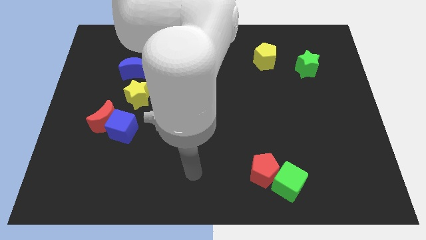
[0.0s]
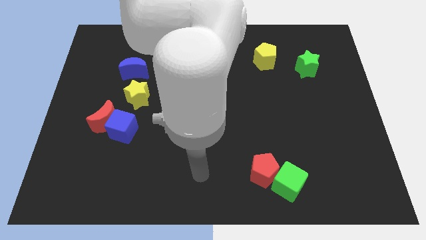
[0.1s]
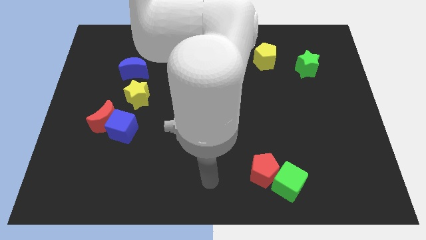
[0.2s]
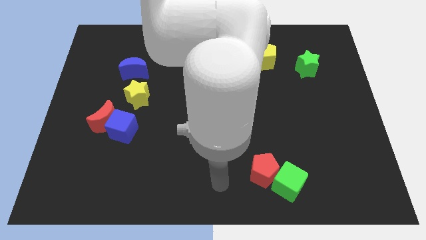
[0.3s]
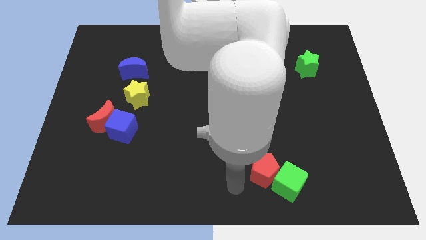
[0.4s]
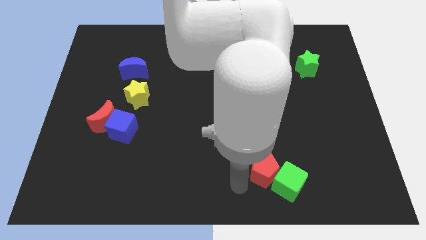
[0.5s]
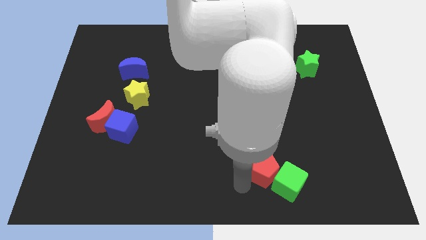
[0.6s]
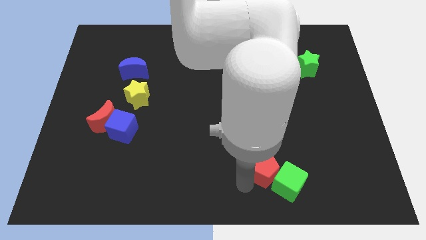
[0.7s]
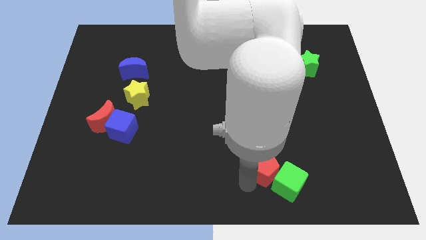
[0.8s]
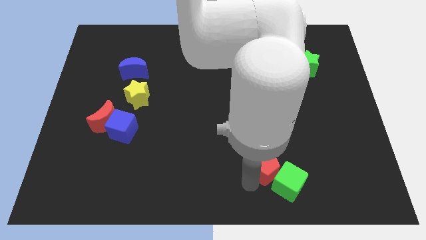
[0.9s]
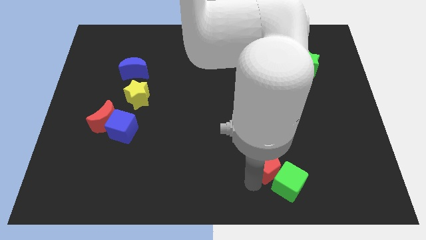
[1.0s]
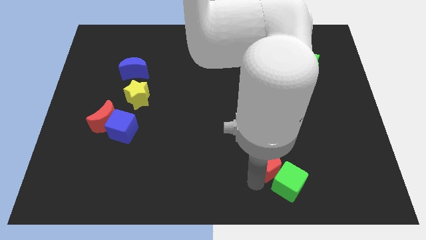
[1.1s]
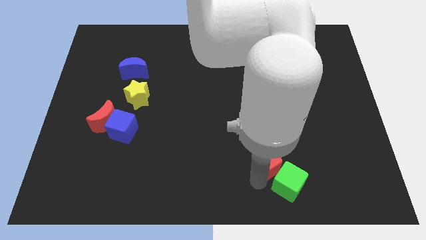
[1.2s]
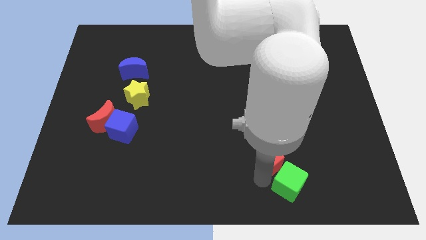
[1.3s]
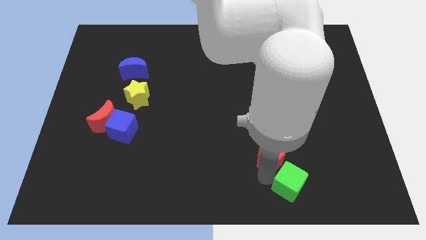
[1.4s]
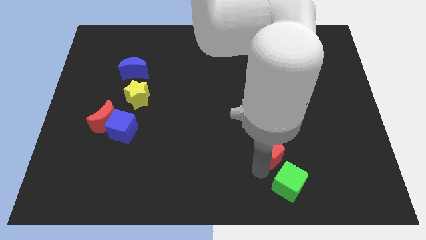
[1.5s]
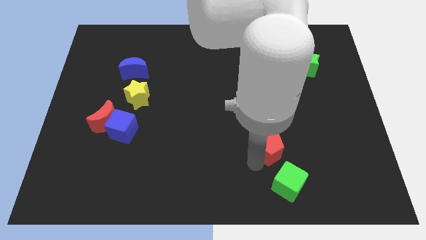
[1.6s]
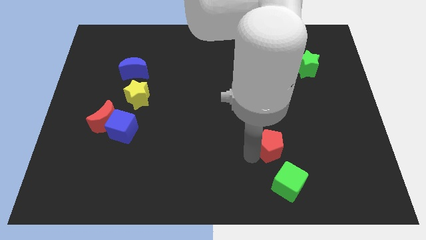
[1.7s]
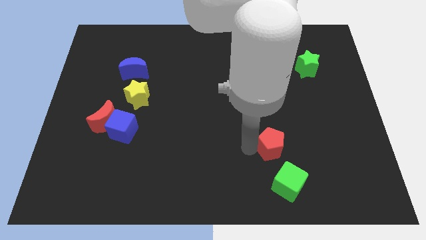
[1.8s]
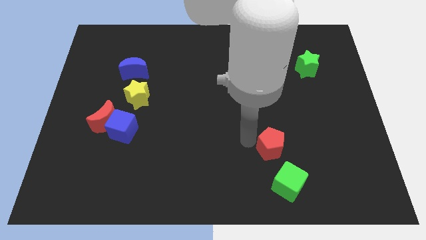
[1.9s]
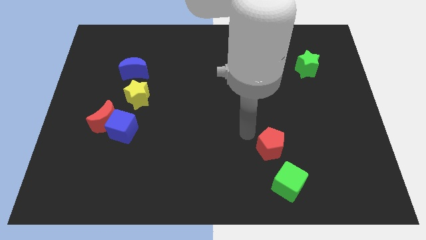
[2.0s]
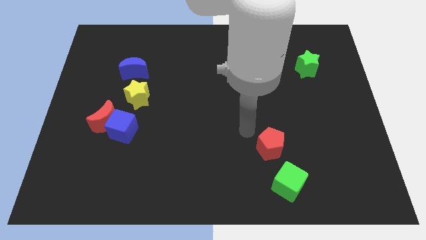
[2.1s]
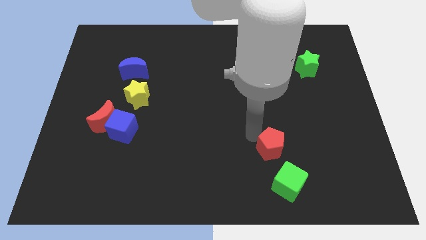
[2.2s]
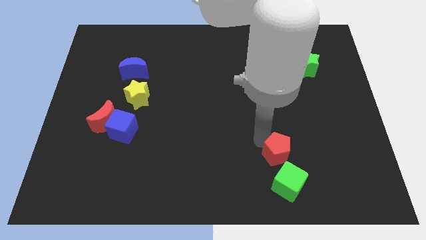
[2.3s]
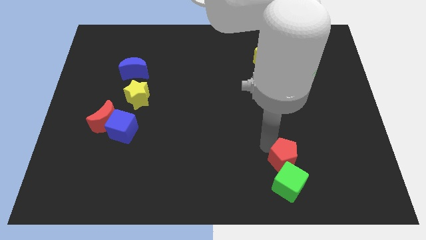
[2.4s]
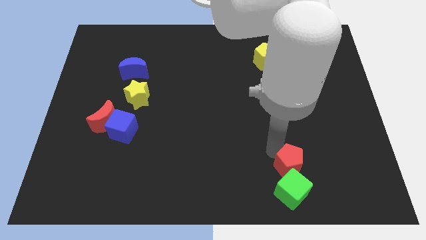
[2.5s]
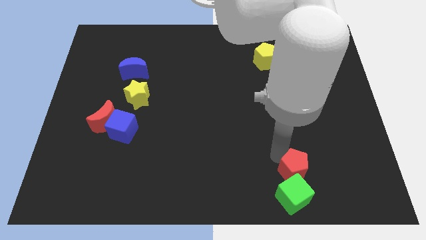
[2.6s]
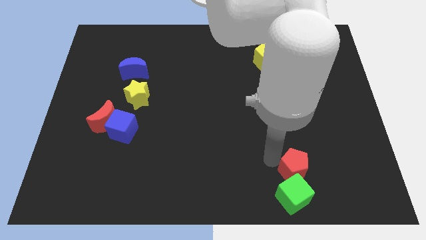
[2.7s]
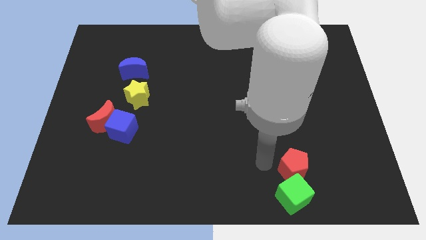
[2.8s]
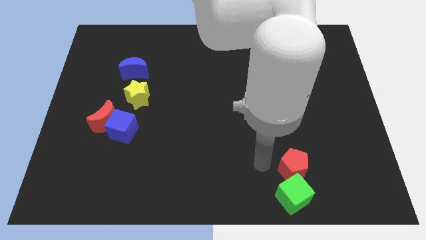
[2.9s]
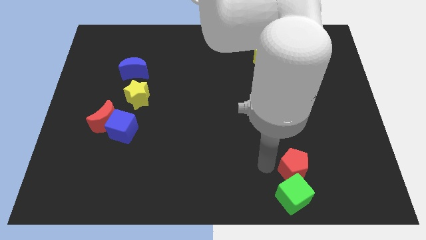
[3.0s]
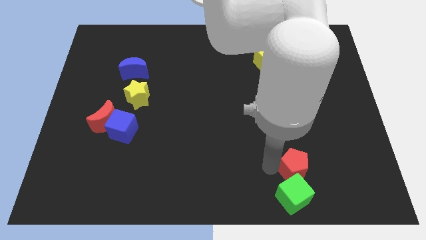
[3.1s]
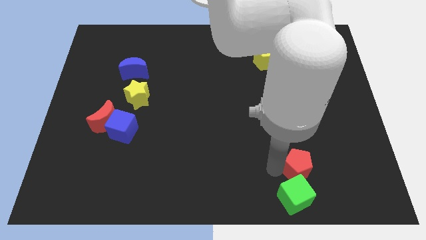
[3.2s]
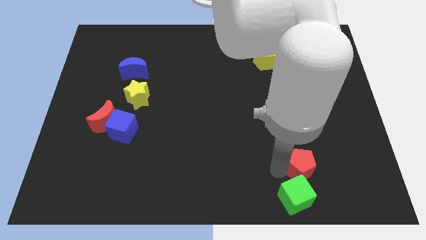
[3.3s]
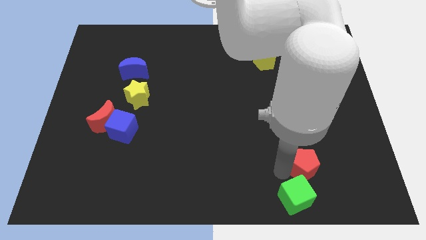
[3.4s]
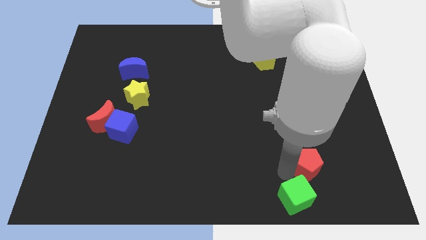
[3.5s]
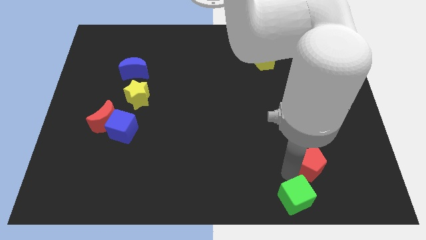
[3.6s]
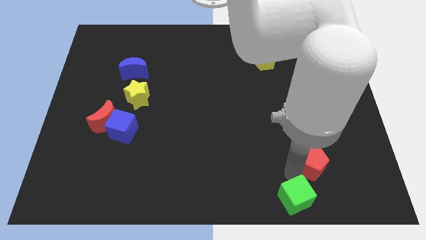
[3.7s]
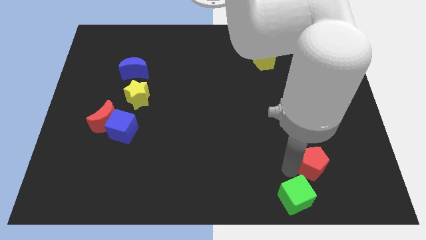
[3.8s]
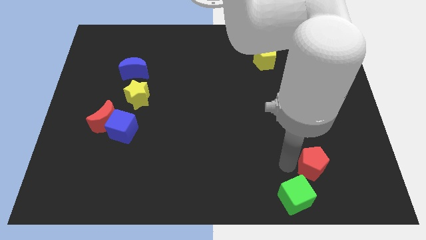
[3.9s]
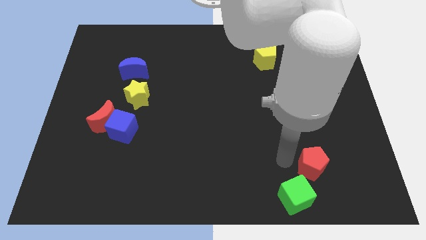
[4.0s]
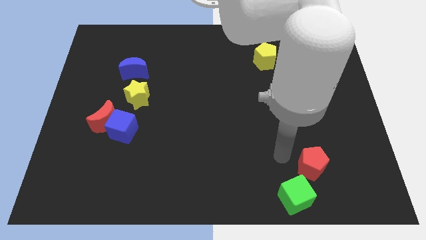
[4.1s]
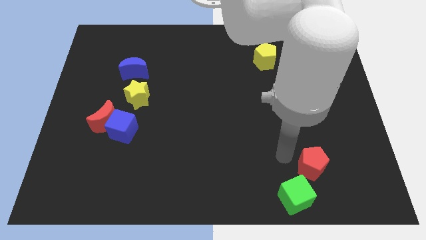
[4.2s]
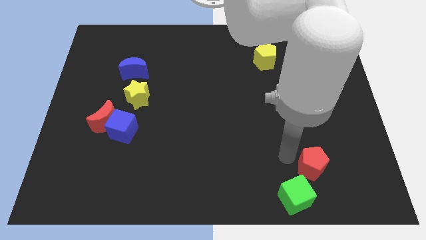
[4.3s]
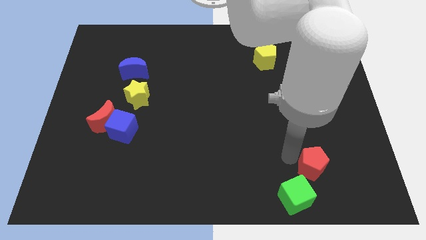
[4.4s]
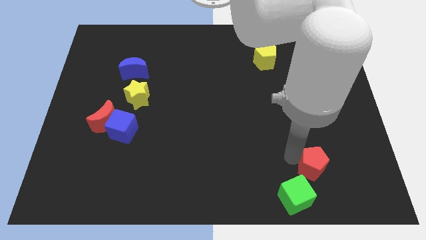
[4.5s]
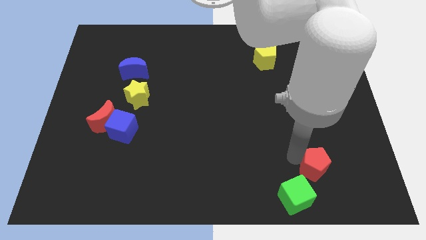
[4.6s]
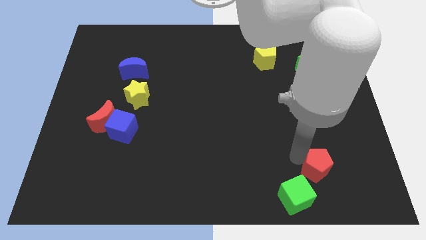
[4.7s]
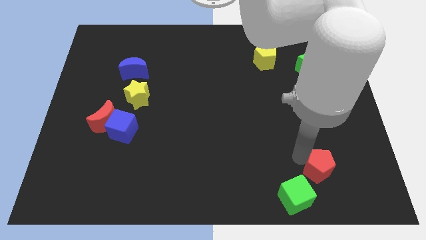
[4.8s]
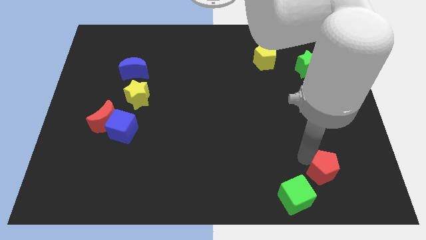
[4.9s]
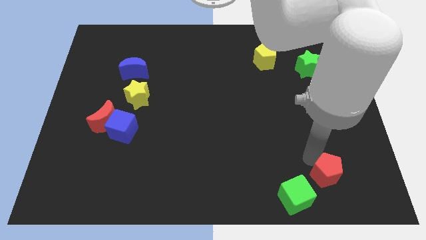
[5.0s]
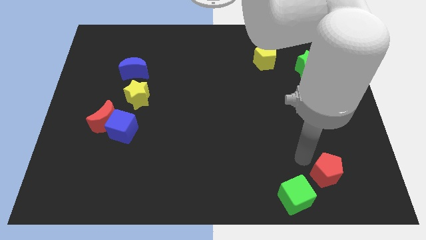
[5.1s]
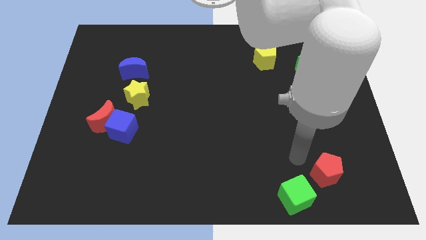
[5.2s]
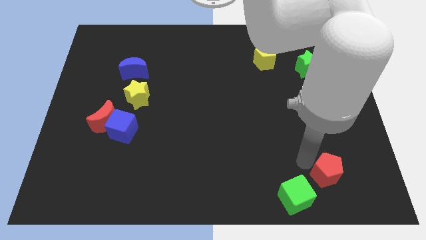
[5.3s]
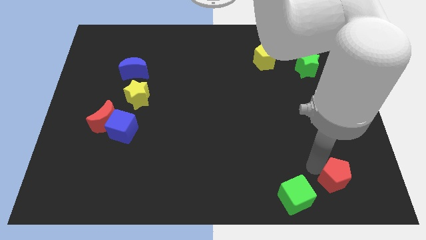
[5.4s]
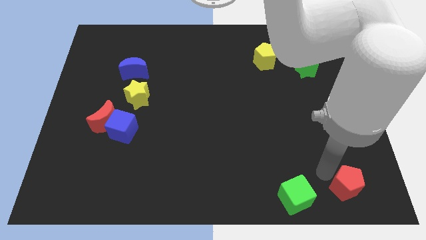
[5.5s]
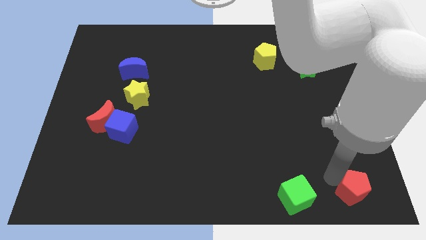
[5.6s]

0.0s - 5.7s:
move the red pentagon to the lower right corner

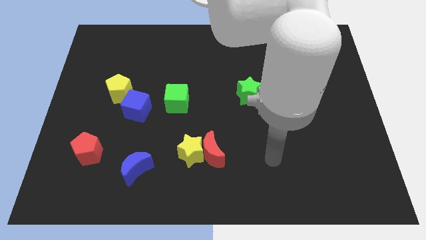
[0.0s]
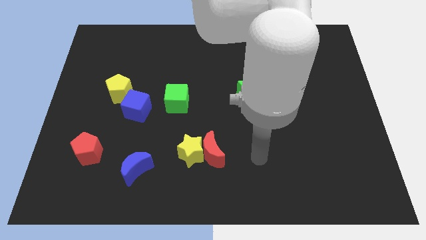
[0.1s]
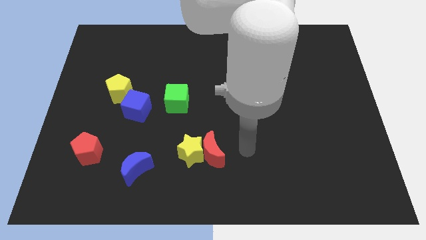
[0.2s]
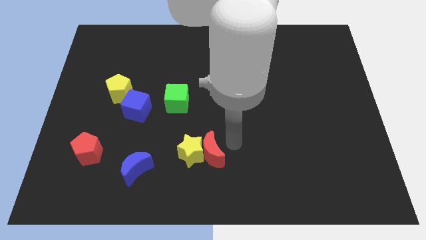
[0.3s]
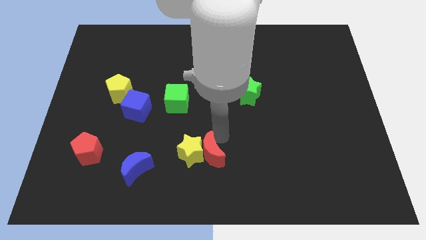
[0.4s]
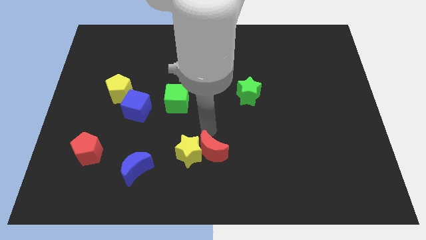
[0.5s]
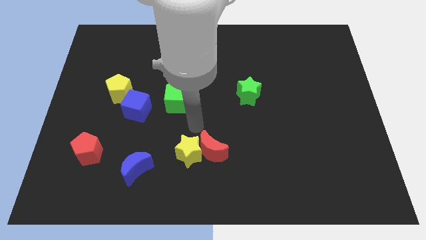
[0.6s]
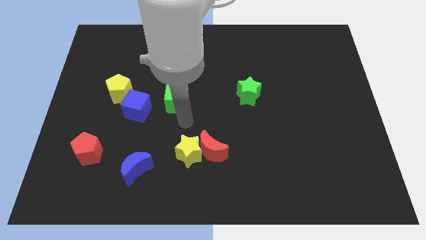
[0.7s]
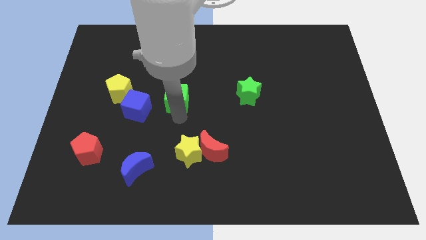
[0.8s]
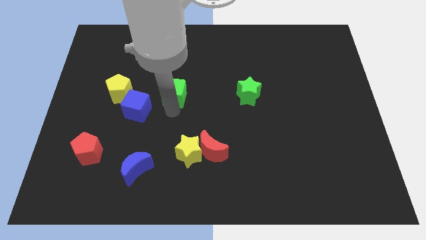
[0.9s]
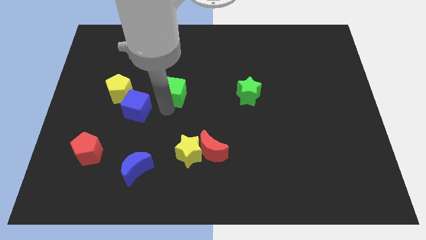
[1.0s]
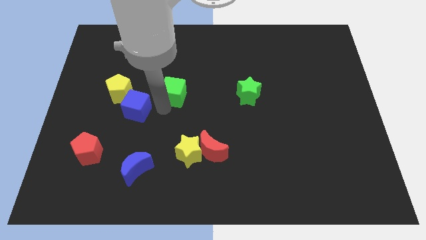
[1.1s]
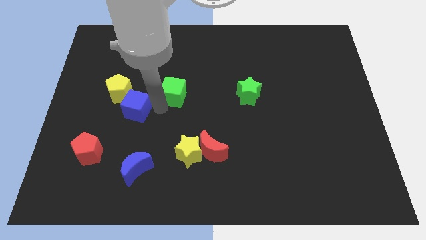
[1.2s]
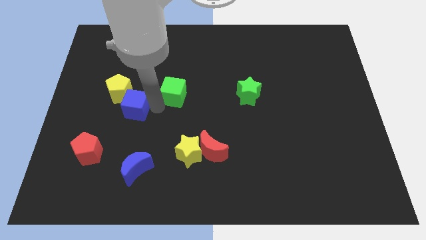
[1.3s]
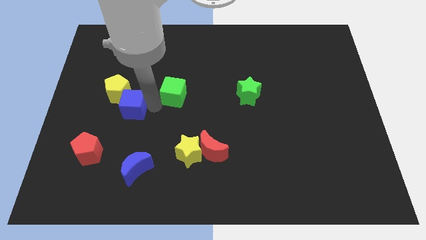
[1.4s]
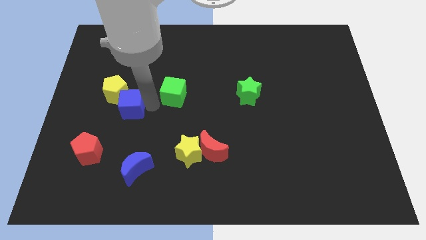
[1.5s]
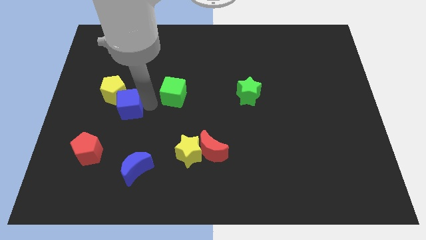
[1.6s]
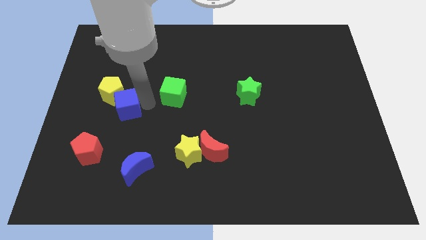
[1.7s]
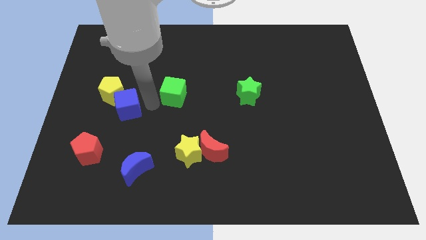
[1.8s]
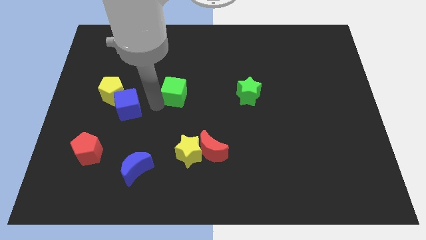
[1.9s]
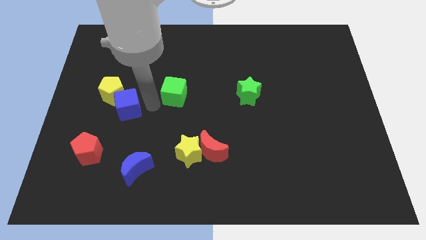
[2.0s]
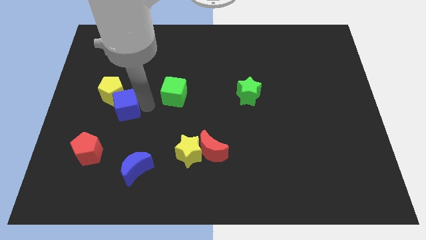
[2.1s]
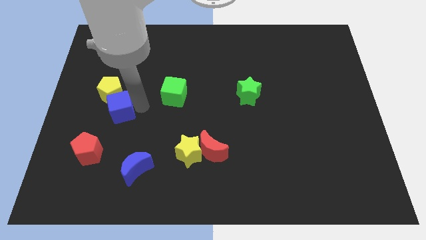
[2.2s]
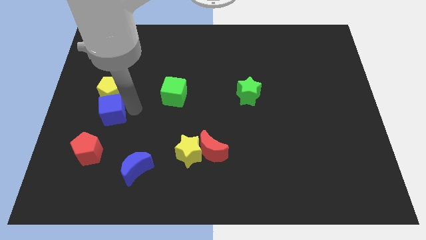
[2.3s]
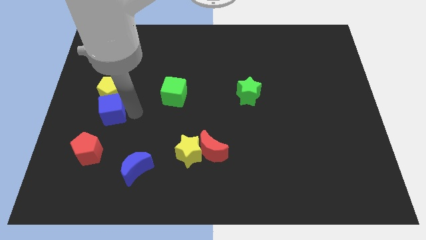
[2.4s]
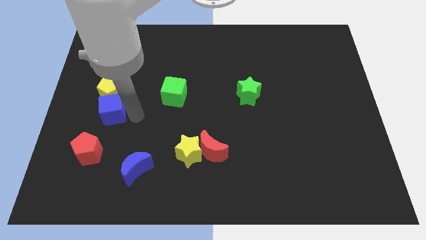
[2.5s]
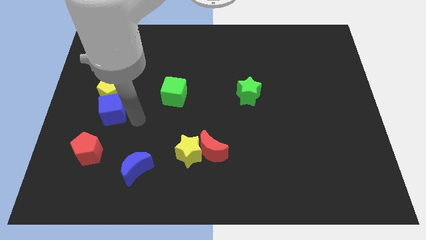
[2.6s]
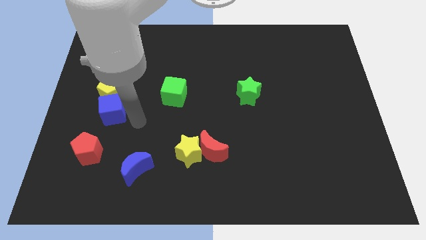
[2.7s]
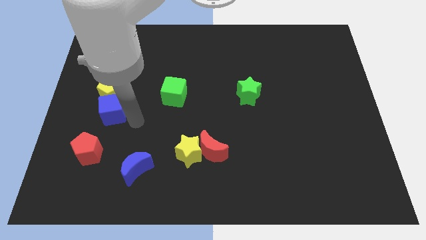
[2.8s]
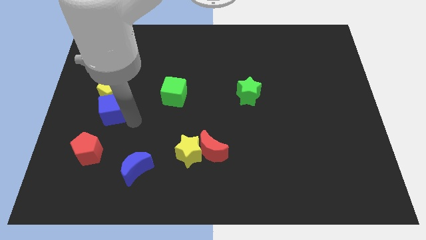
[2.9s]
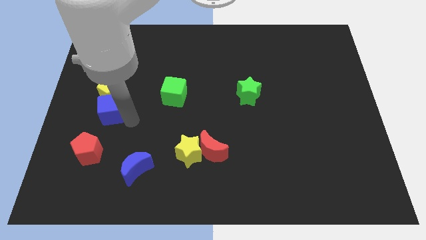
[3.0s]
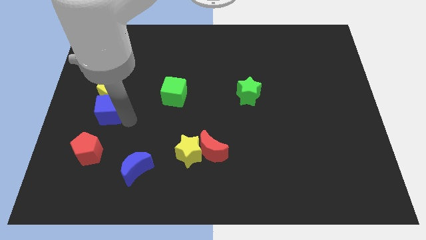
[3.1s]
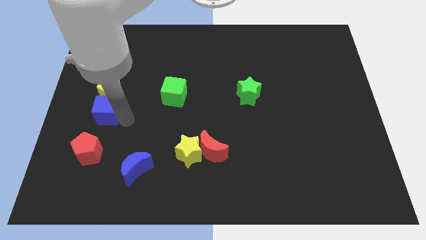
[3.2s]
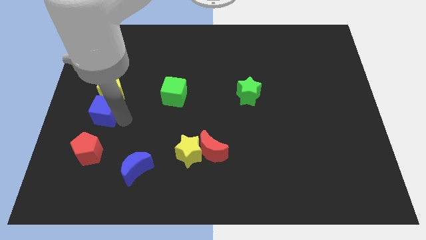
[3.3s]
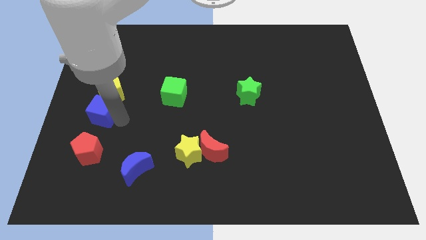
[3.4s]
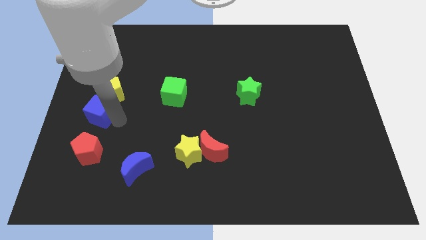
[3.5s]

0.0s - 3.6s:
slide the blue cube to the center left
